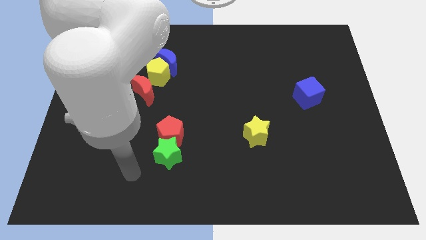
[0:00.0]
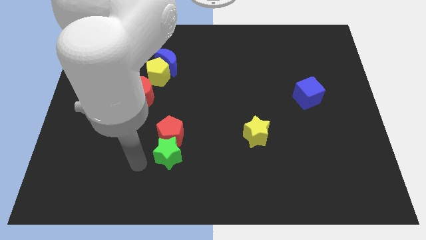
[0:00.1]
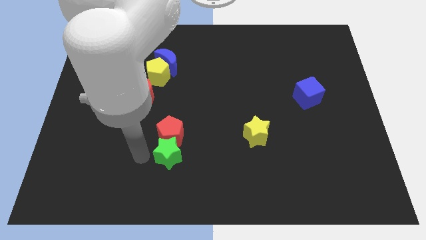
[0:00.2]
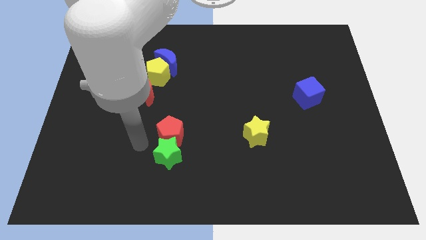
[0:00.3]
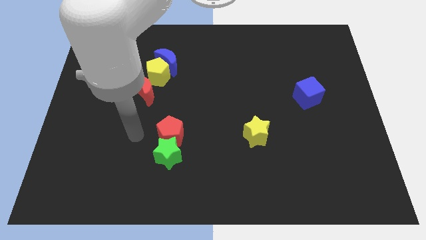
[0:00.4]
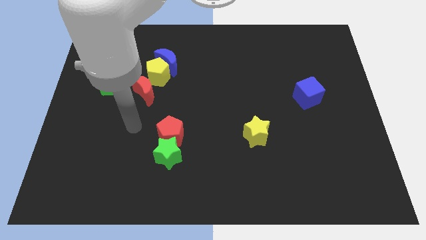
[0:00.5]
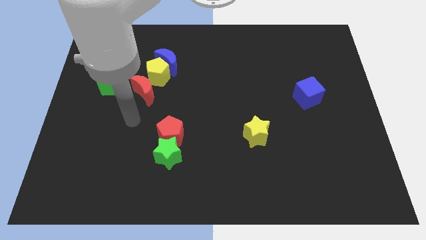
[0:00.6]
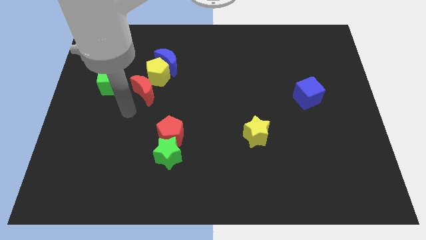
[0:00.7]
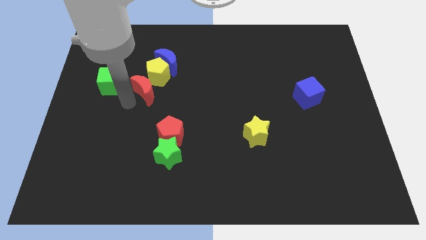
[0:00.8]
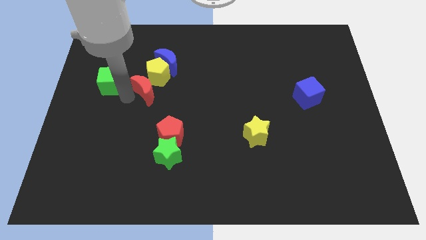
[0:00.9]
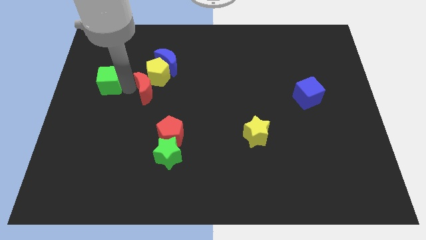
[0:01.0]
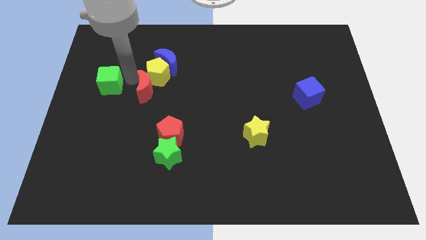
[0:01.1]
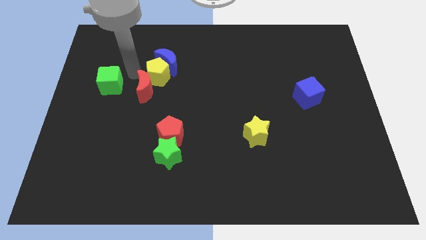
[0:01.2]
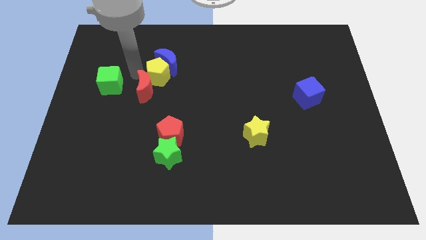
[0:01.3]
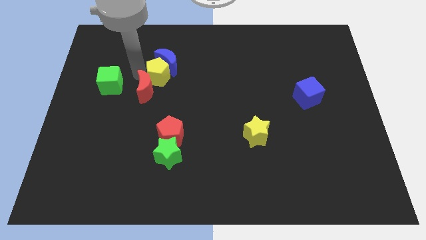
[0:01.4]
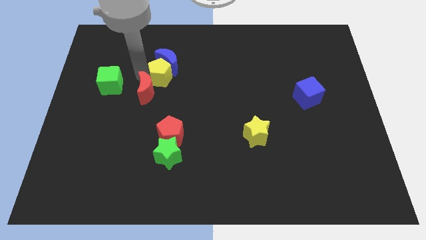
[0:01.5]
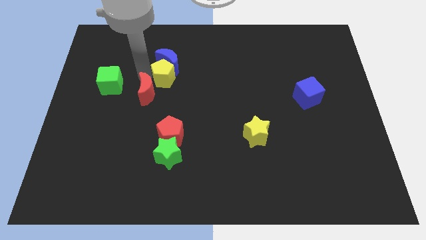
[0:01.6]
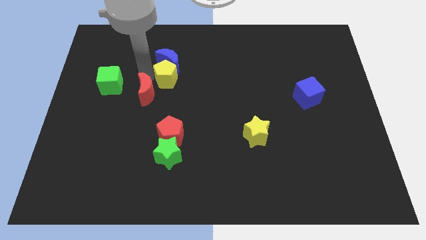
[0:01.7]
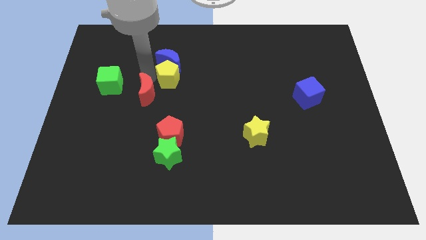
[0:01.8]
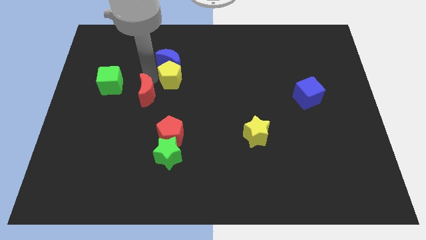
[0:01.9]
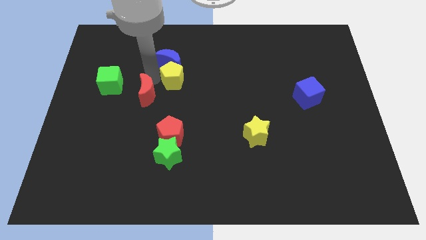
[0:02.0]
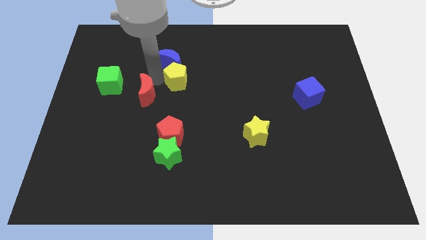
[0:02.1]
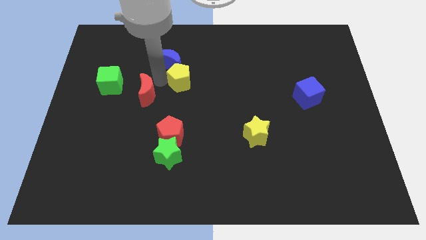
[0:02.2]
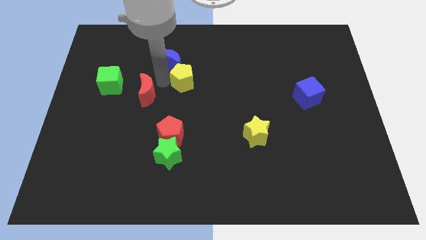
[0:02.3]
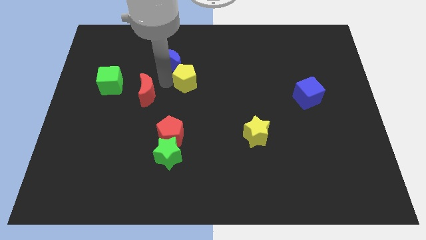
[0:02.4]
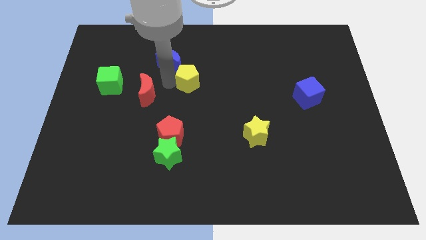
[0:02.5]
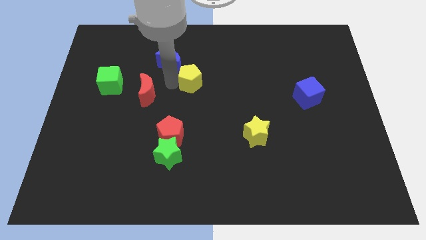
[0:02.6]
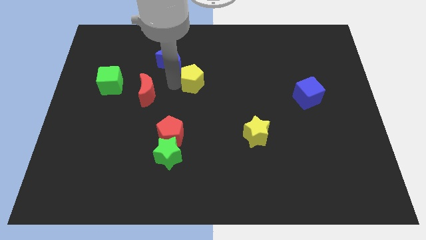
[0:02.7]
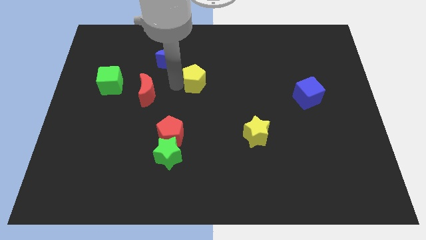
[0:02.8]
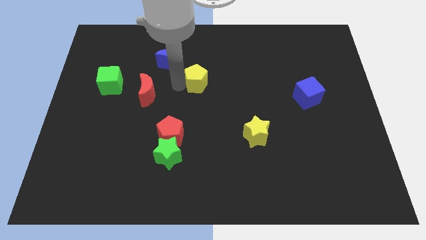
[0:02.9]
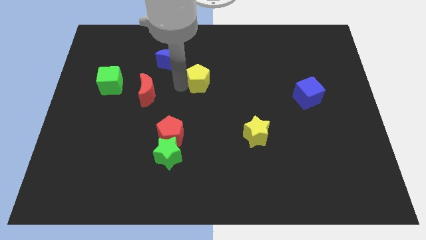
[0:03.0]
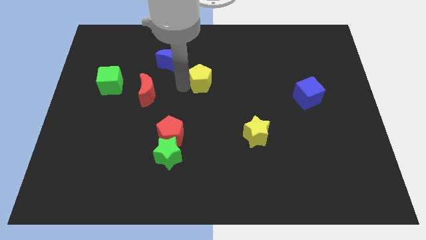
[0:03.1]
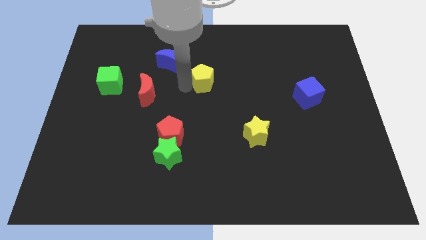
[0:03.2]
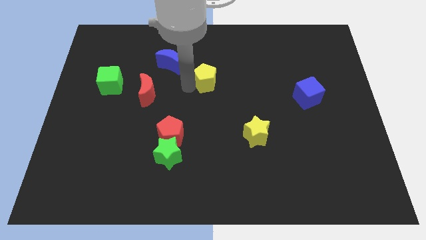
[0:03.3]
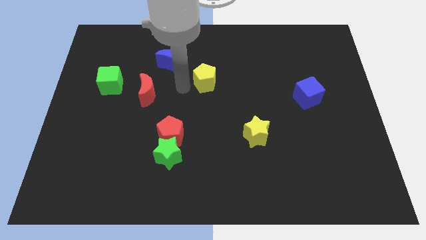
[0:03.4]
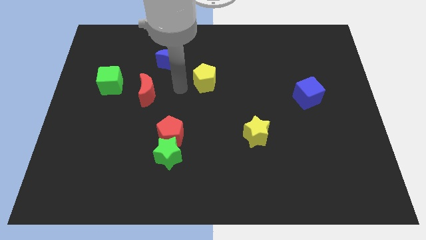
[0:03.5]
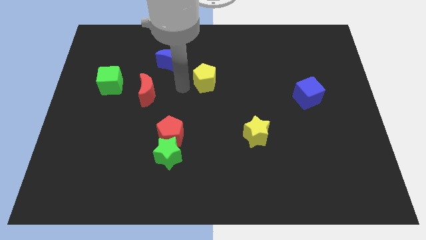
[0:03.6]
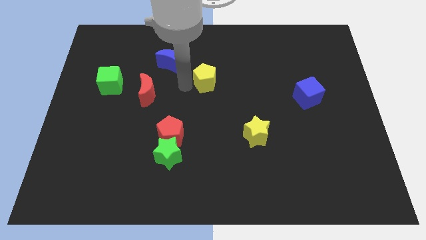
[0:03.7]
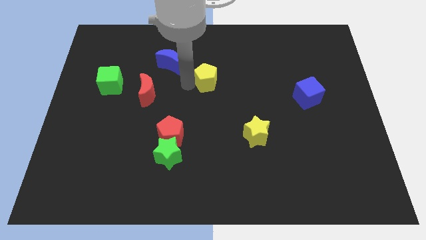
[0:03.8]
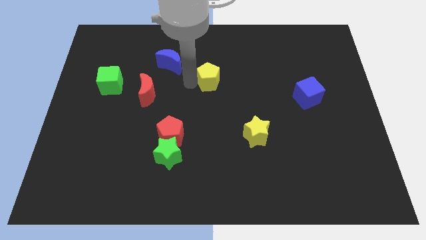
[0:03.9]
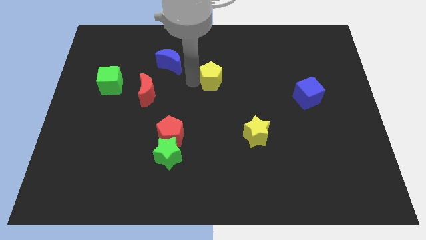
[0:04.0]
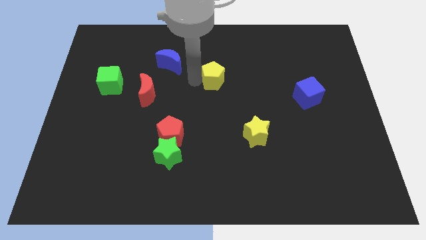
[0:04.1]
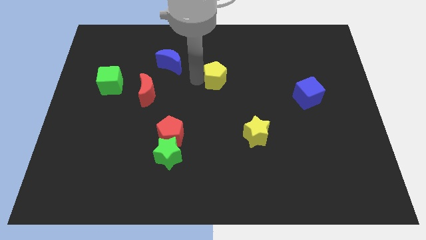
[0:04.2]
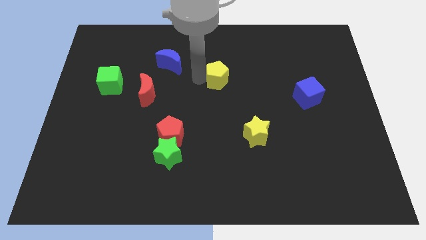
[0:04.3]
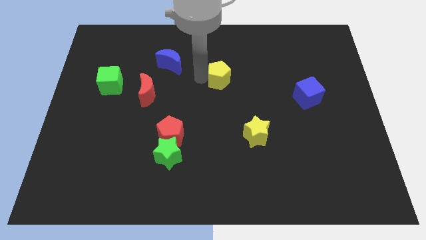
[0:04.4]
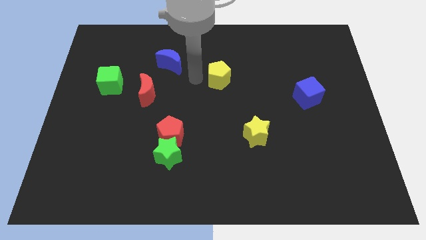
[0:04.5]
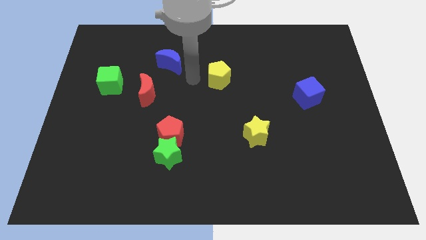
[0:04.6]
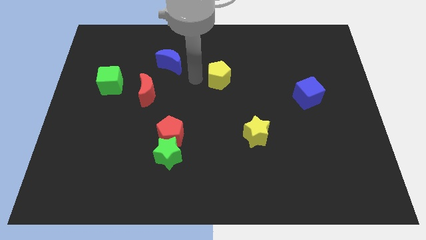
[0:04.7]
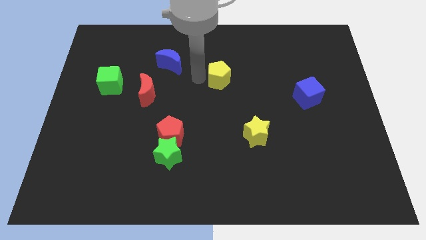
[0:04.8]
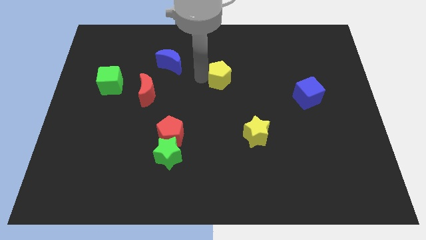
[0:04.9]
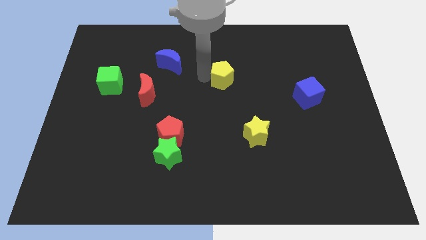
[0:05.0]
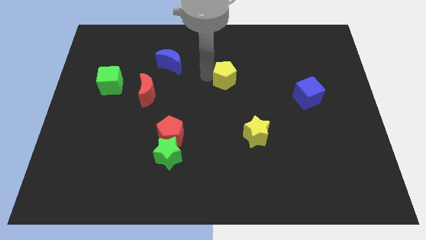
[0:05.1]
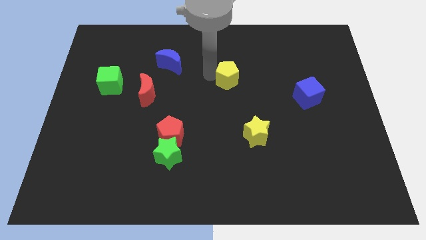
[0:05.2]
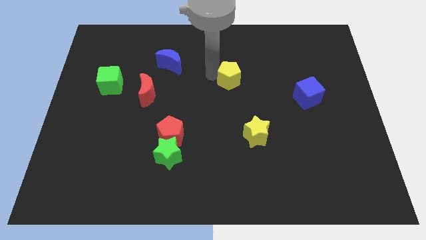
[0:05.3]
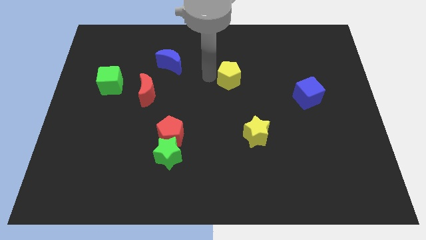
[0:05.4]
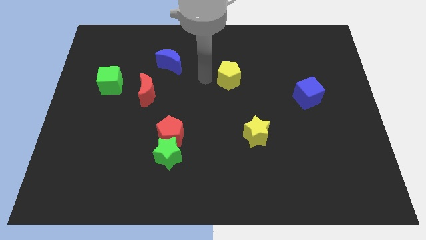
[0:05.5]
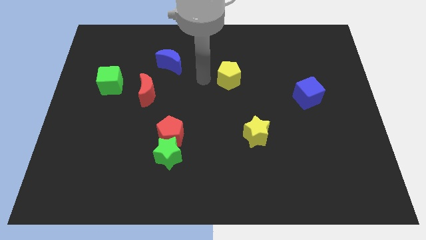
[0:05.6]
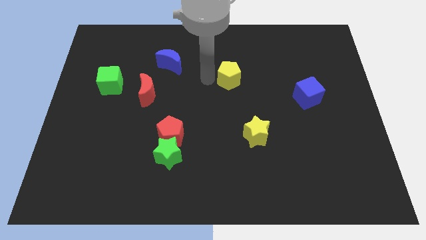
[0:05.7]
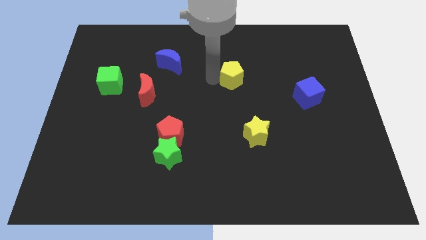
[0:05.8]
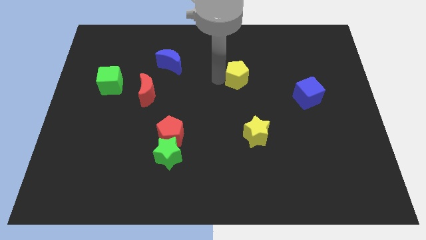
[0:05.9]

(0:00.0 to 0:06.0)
push the yellow pentagon right

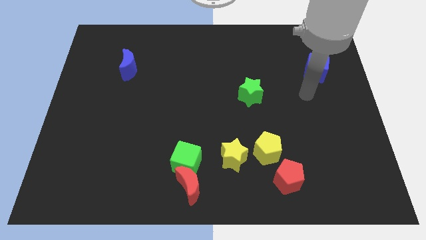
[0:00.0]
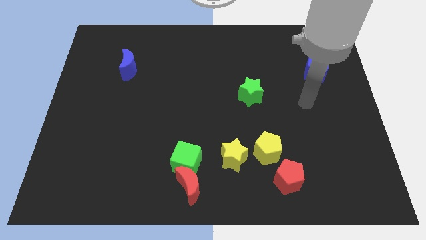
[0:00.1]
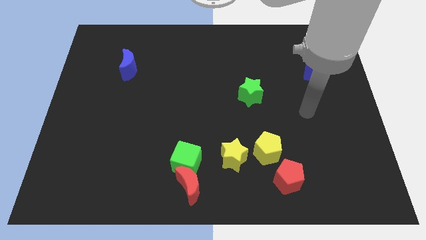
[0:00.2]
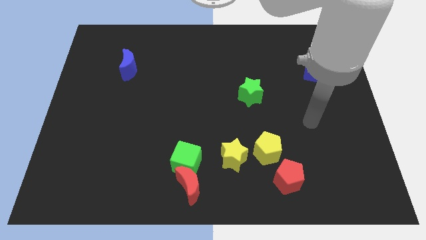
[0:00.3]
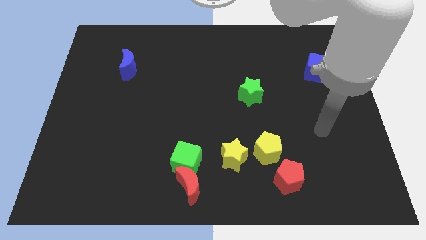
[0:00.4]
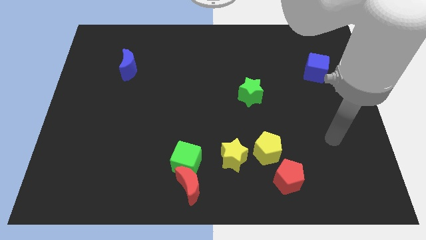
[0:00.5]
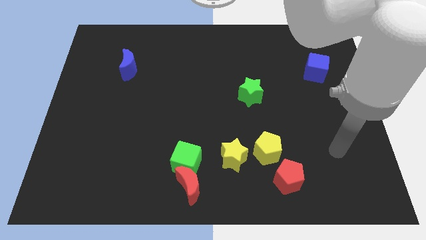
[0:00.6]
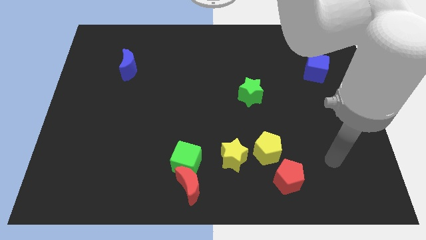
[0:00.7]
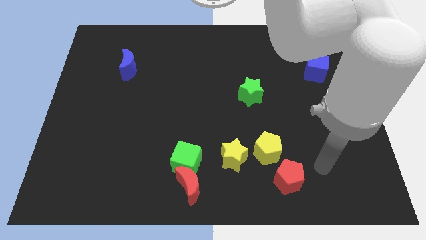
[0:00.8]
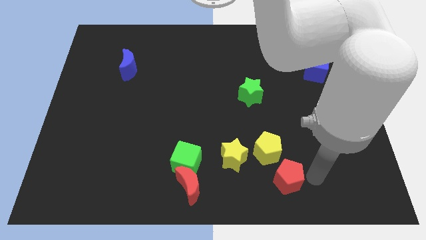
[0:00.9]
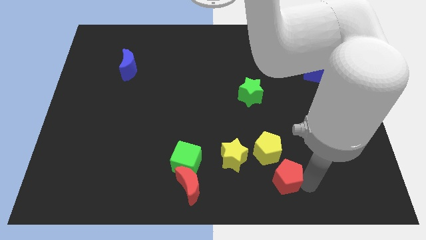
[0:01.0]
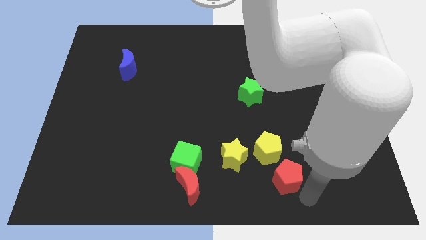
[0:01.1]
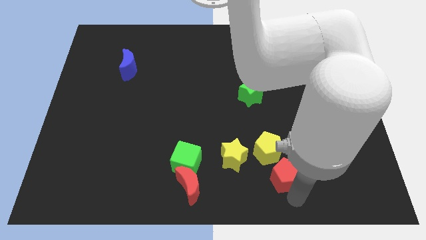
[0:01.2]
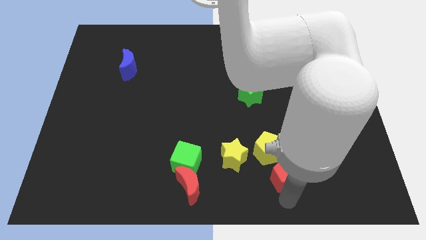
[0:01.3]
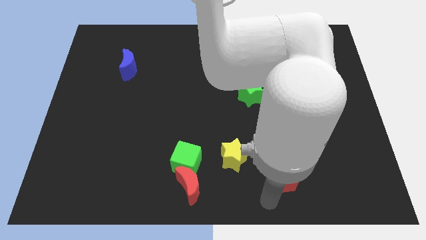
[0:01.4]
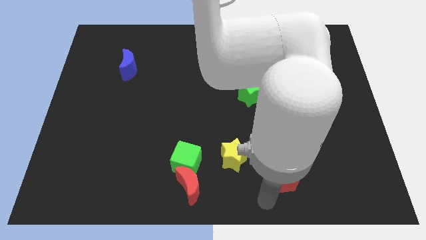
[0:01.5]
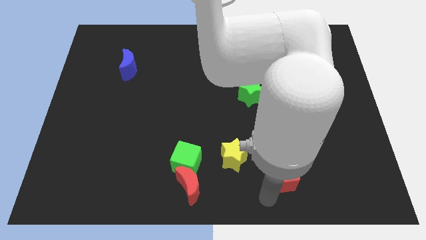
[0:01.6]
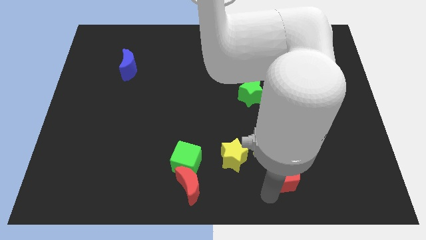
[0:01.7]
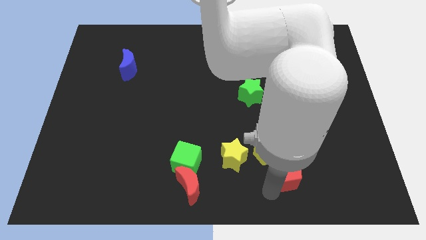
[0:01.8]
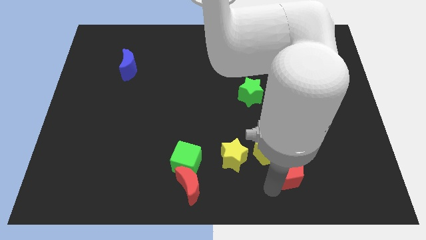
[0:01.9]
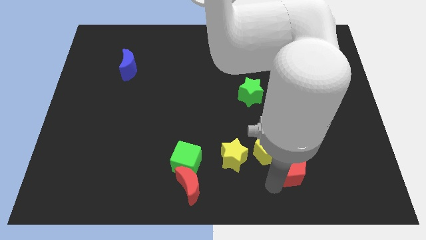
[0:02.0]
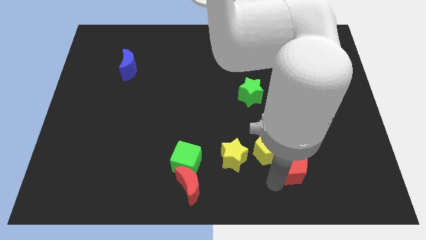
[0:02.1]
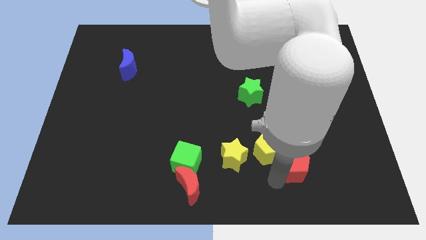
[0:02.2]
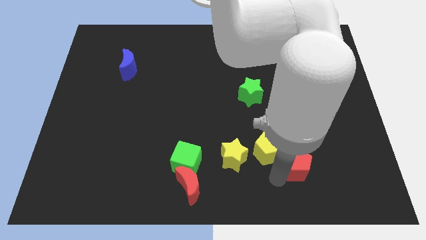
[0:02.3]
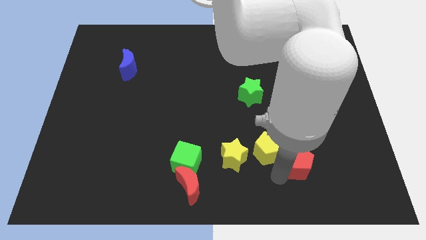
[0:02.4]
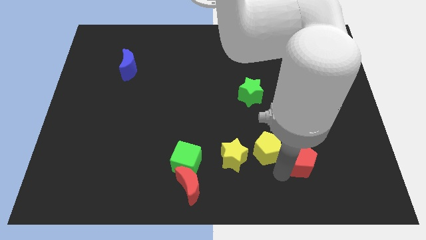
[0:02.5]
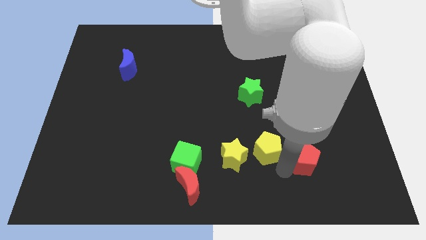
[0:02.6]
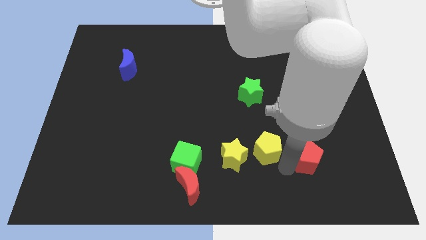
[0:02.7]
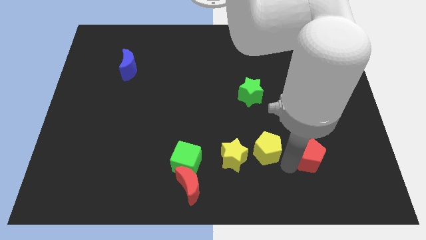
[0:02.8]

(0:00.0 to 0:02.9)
push the red pentagon a little bit diagonally up and right
